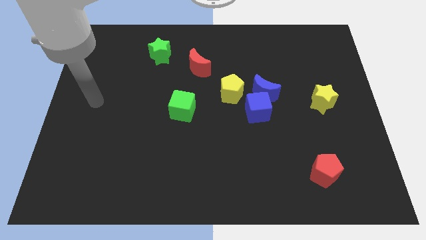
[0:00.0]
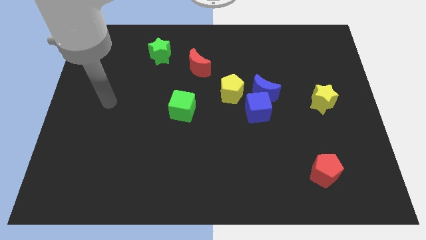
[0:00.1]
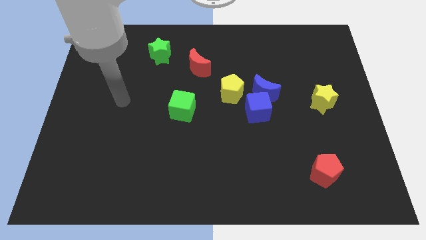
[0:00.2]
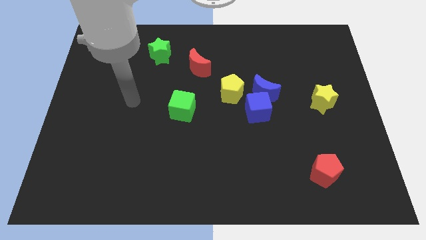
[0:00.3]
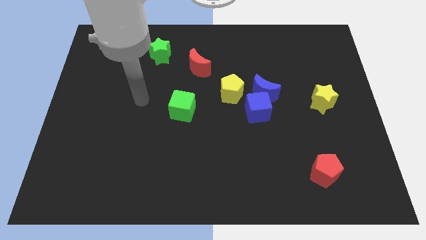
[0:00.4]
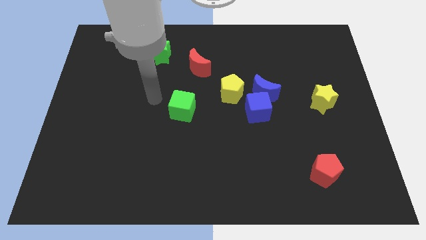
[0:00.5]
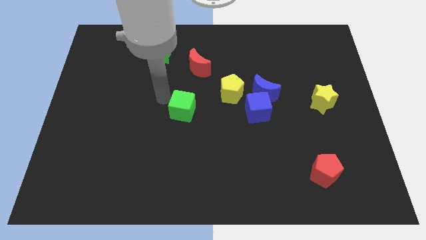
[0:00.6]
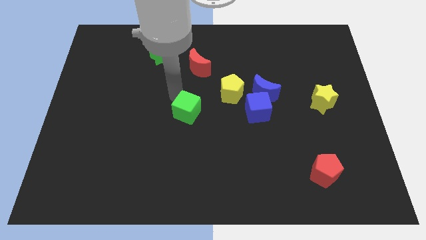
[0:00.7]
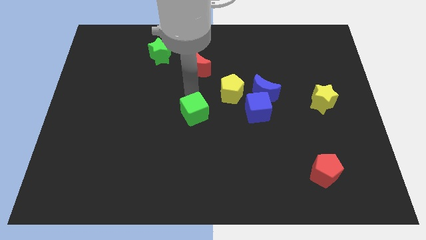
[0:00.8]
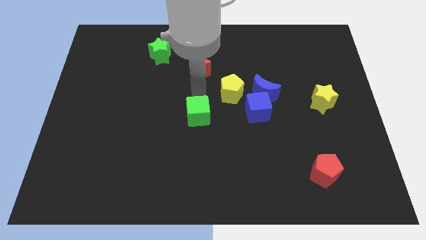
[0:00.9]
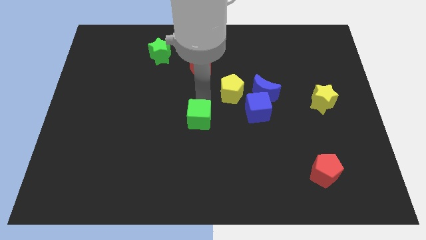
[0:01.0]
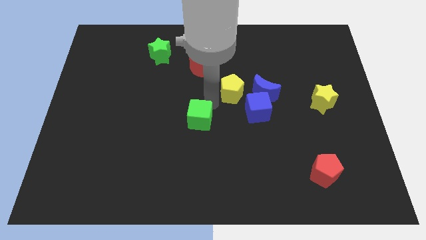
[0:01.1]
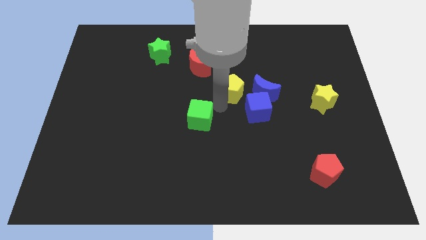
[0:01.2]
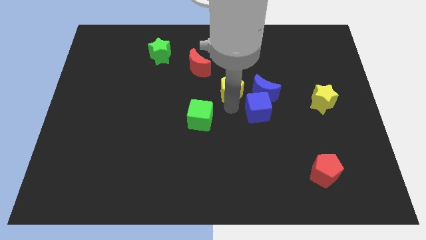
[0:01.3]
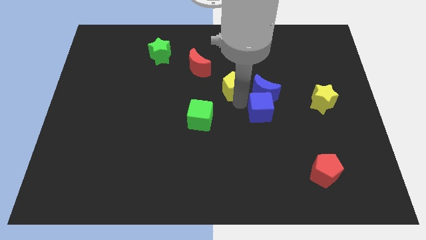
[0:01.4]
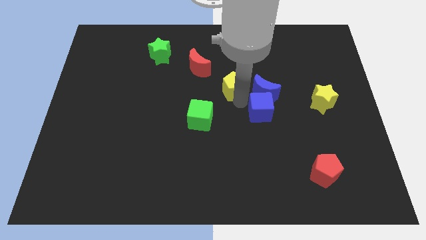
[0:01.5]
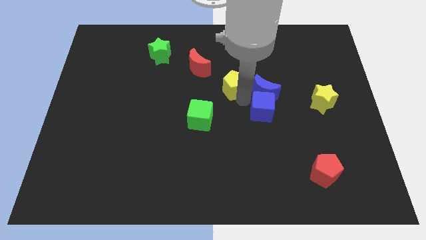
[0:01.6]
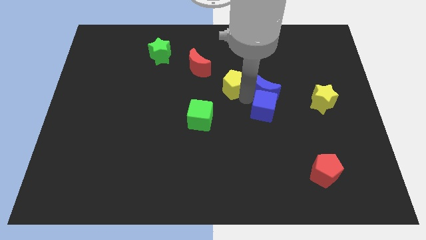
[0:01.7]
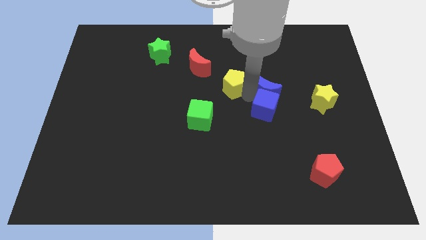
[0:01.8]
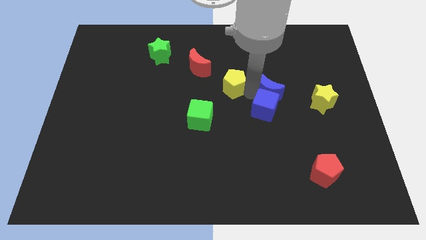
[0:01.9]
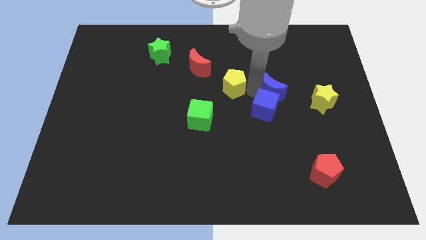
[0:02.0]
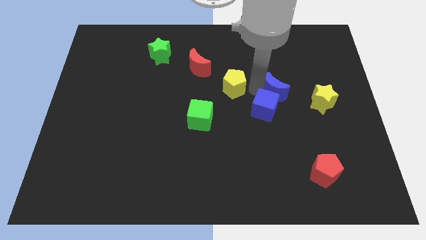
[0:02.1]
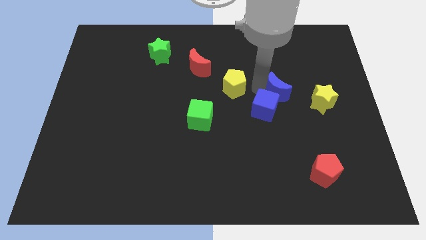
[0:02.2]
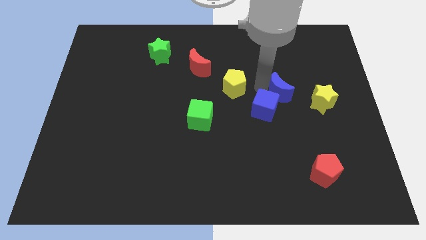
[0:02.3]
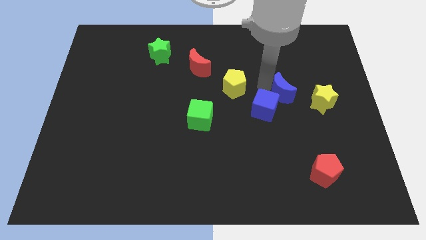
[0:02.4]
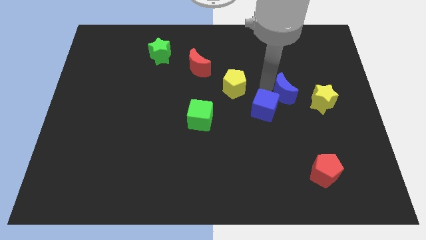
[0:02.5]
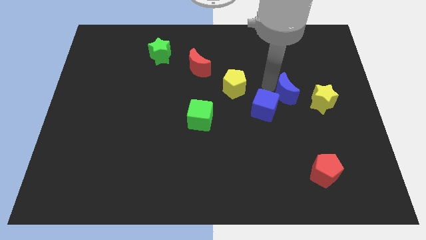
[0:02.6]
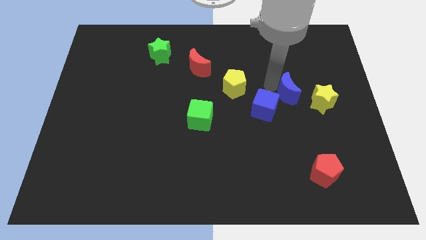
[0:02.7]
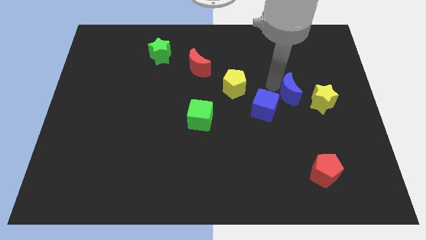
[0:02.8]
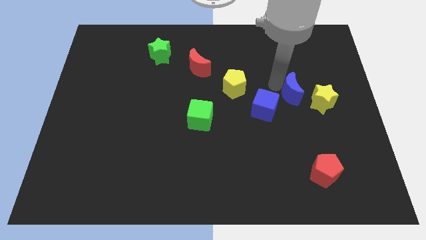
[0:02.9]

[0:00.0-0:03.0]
pull the blue moon apart from the blue cube and yellow pentagon

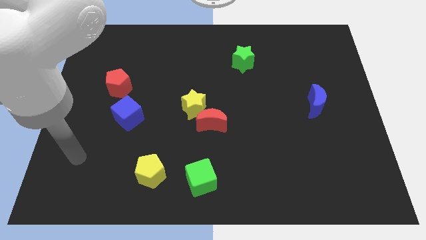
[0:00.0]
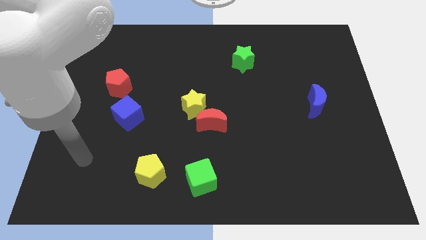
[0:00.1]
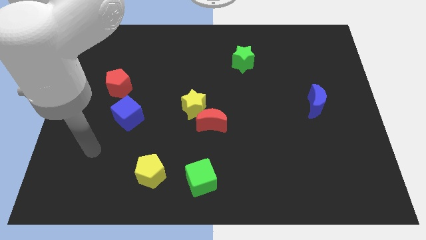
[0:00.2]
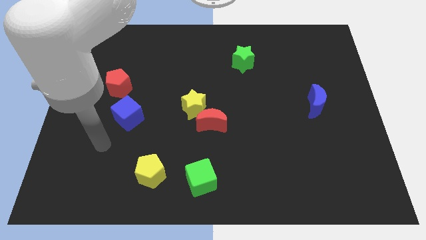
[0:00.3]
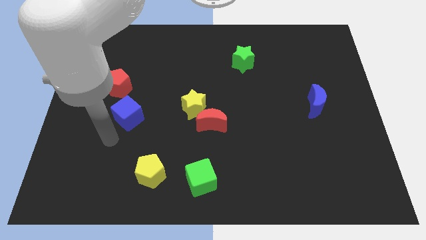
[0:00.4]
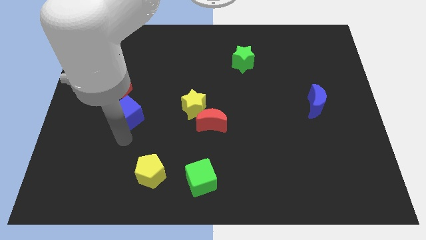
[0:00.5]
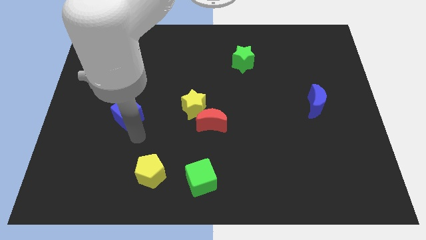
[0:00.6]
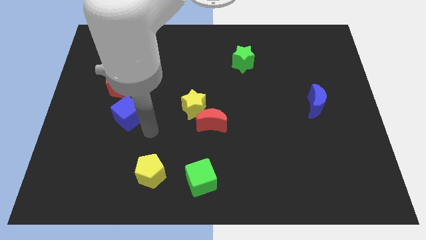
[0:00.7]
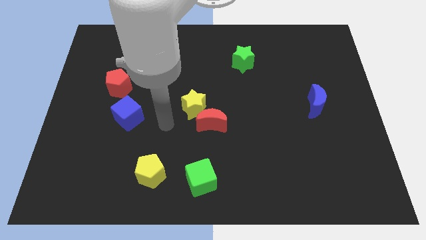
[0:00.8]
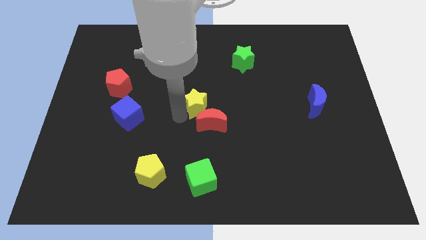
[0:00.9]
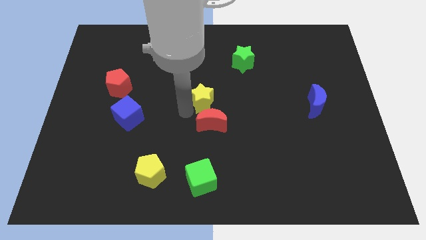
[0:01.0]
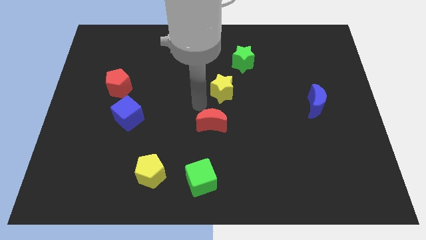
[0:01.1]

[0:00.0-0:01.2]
pull the red moon apart from the yellow star

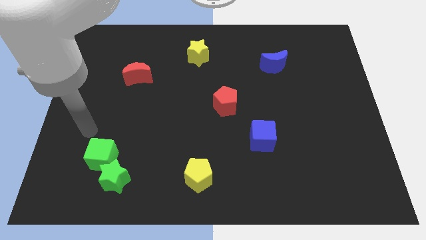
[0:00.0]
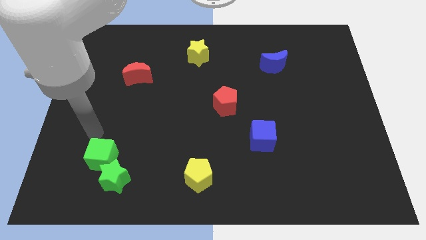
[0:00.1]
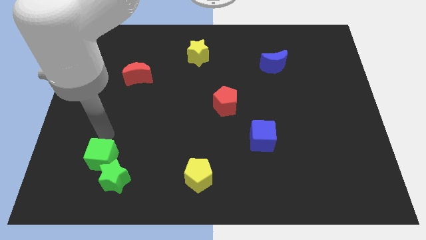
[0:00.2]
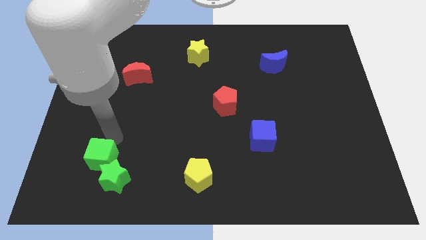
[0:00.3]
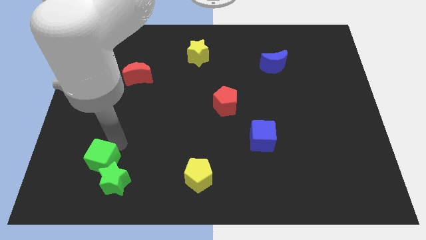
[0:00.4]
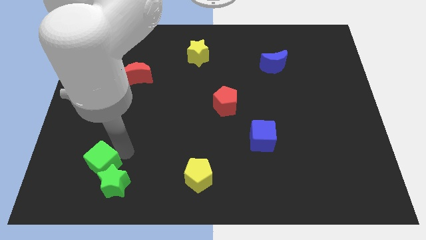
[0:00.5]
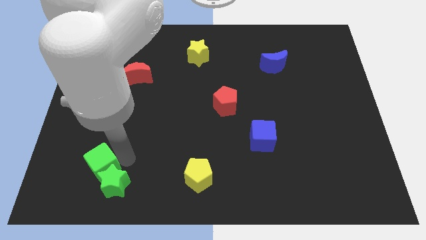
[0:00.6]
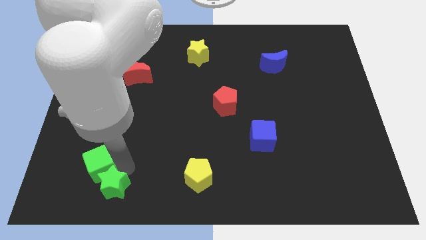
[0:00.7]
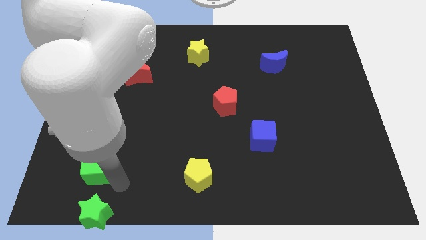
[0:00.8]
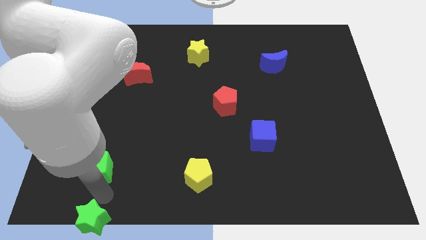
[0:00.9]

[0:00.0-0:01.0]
move the green cube away from the green star

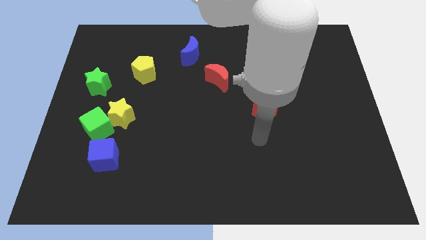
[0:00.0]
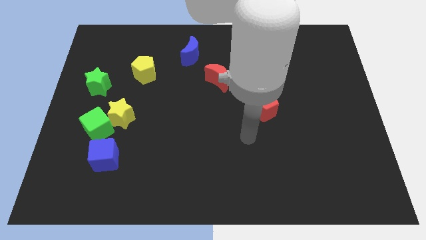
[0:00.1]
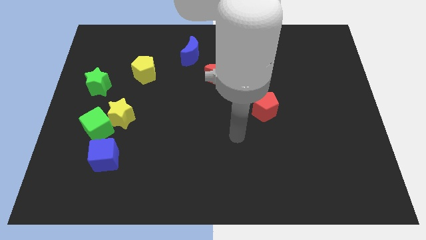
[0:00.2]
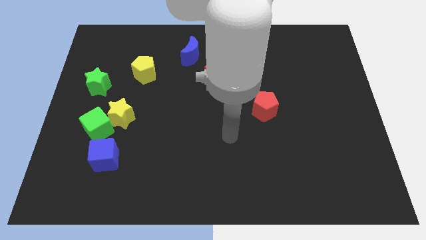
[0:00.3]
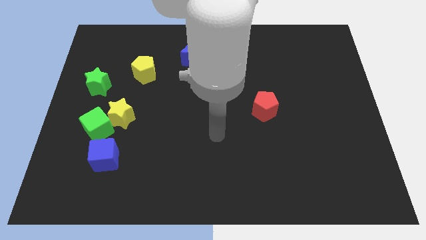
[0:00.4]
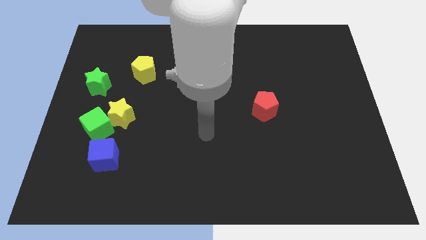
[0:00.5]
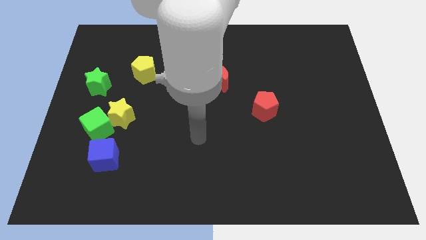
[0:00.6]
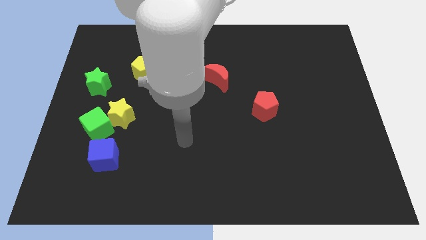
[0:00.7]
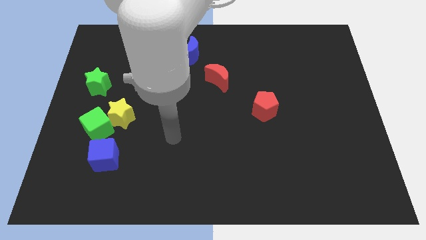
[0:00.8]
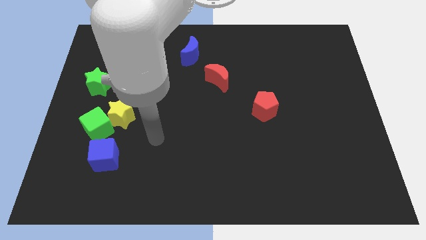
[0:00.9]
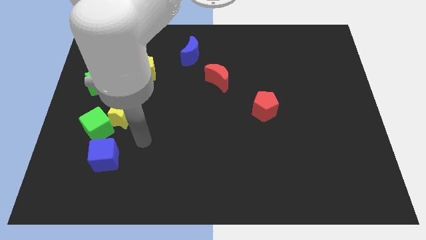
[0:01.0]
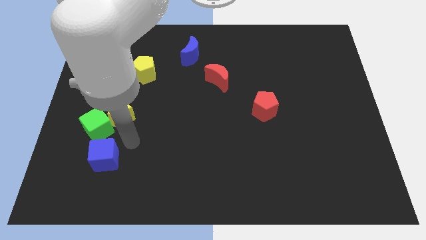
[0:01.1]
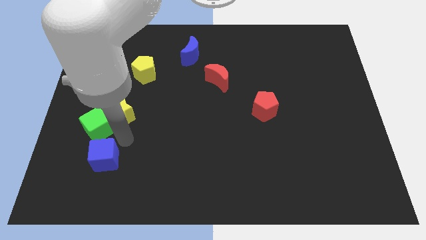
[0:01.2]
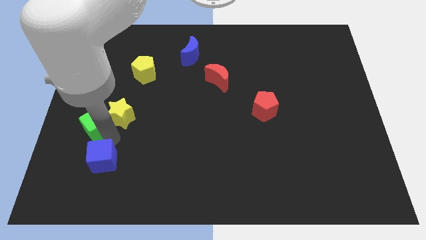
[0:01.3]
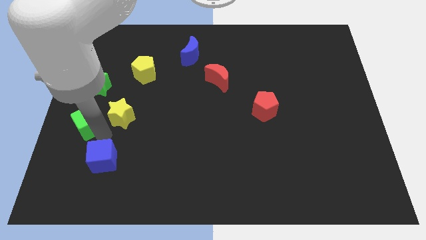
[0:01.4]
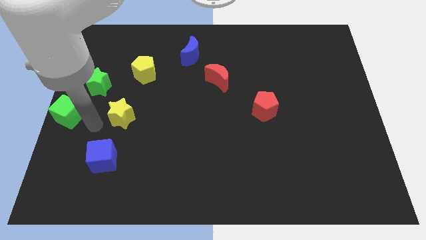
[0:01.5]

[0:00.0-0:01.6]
pull the yellow star apart from the green cube

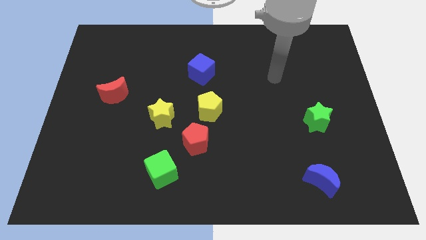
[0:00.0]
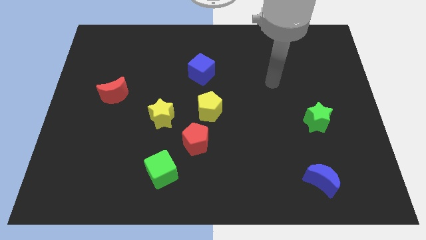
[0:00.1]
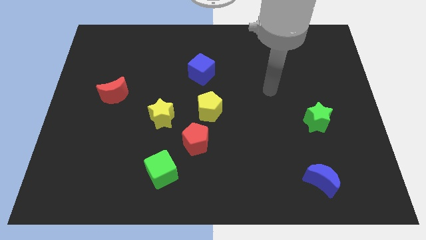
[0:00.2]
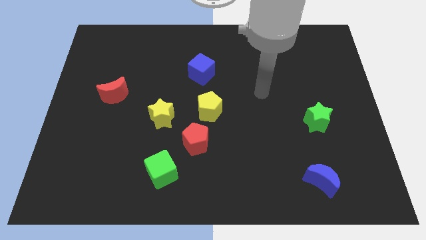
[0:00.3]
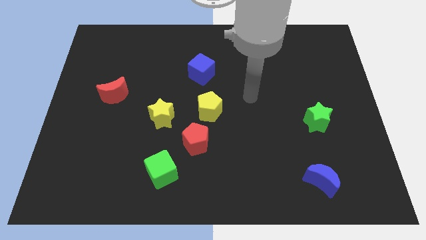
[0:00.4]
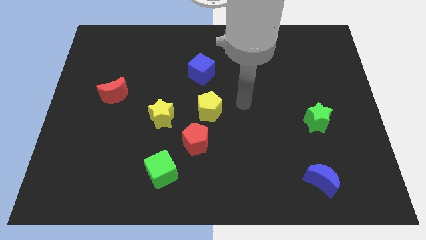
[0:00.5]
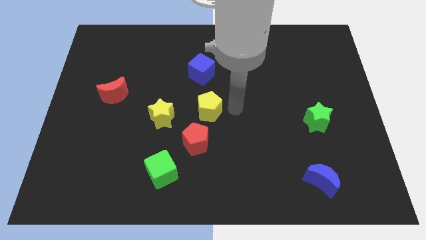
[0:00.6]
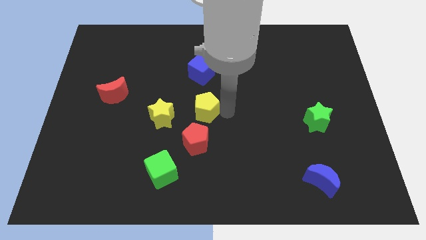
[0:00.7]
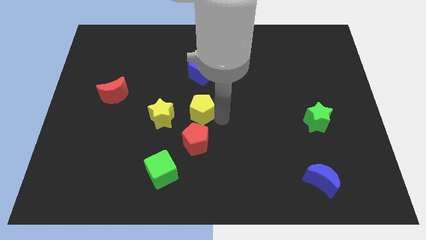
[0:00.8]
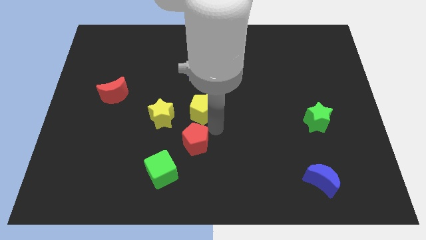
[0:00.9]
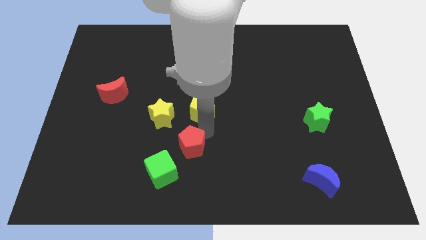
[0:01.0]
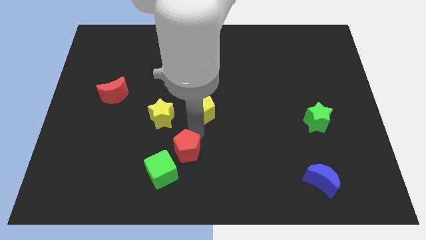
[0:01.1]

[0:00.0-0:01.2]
pull the yellow pentagon apart from the red pentagon

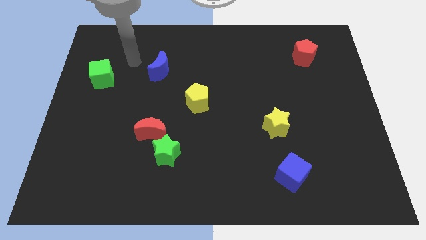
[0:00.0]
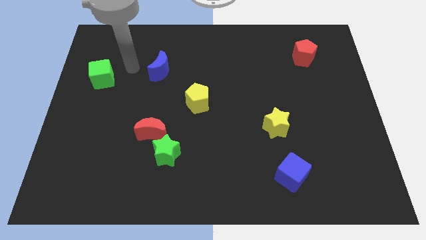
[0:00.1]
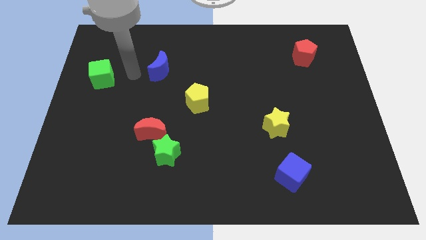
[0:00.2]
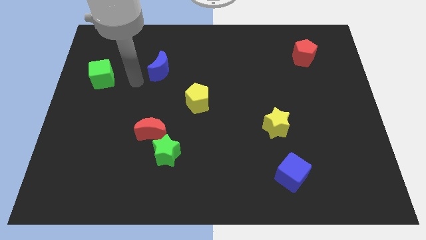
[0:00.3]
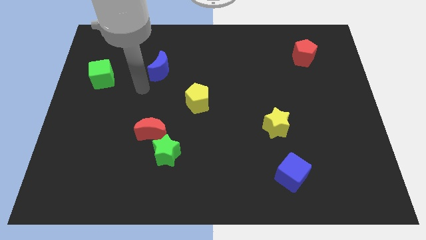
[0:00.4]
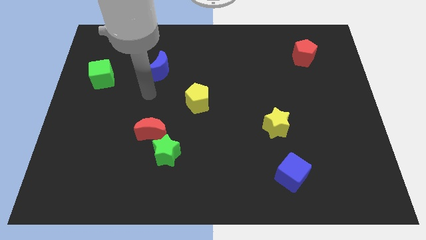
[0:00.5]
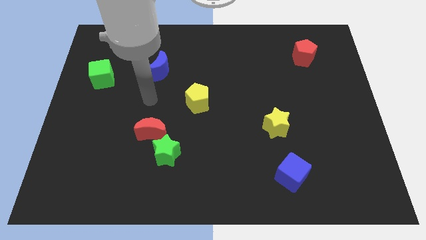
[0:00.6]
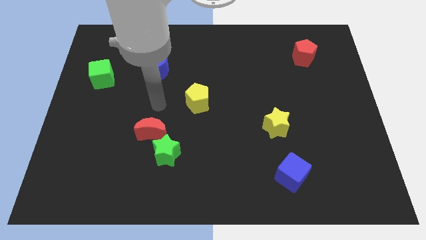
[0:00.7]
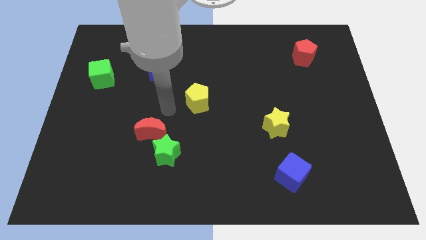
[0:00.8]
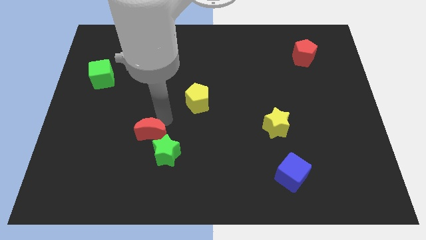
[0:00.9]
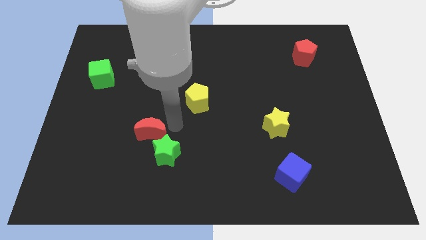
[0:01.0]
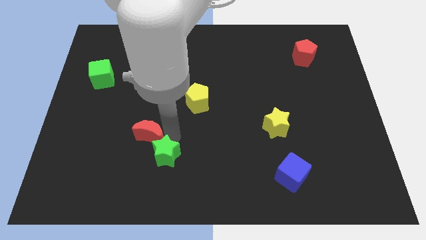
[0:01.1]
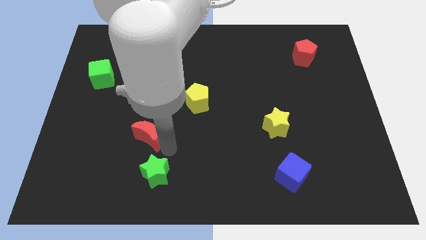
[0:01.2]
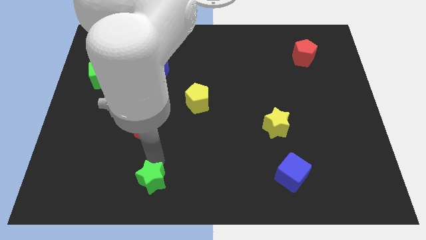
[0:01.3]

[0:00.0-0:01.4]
move the red moon away from the green star
